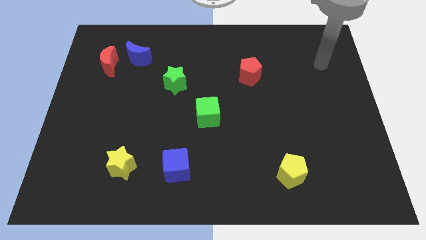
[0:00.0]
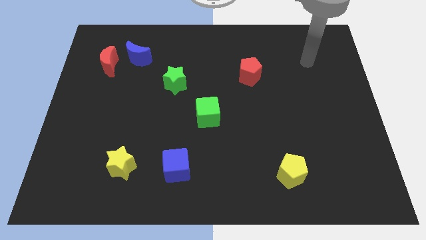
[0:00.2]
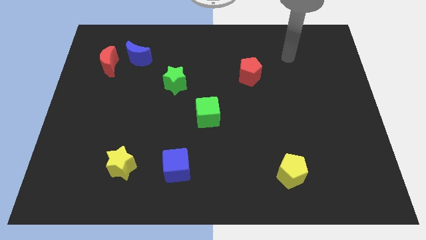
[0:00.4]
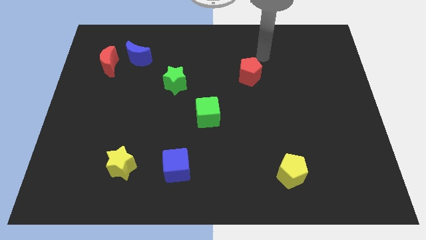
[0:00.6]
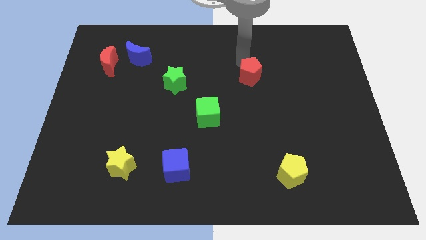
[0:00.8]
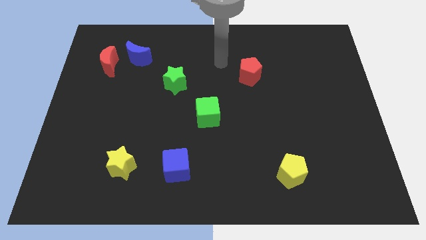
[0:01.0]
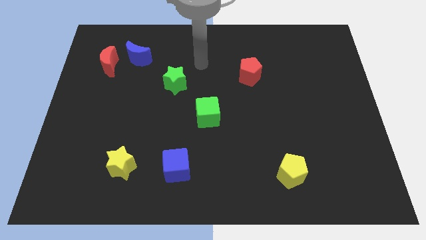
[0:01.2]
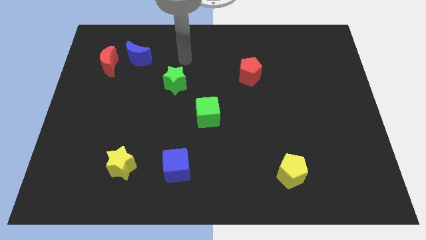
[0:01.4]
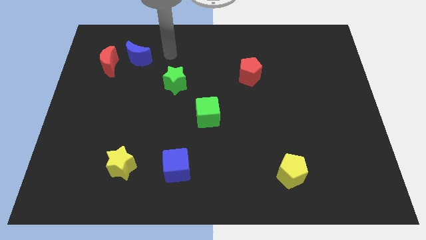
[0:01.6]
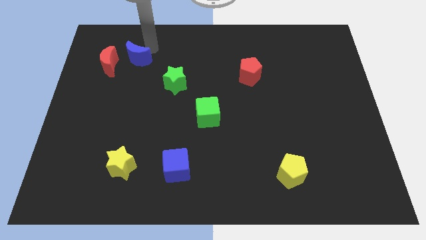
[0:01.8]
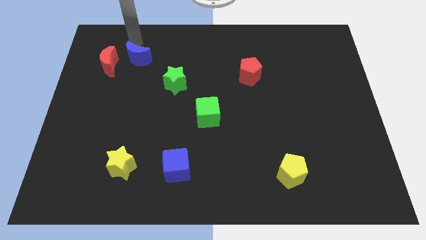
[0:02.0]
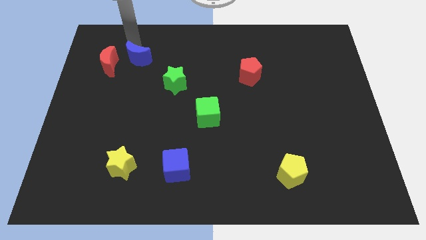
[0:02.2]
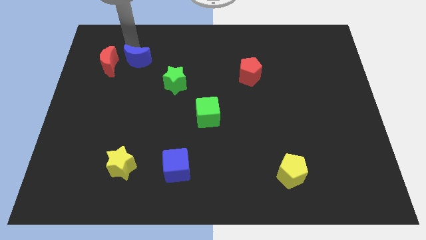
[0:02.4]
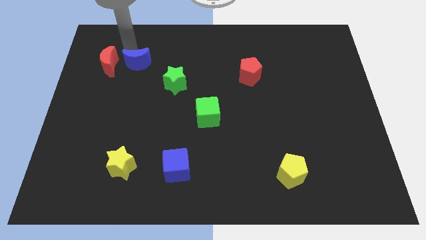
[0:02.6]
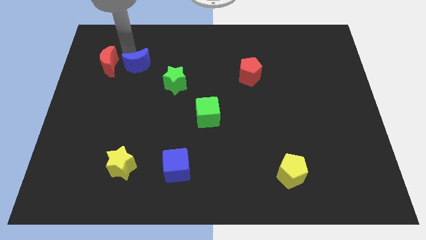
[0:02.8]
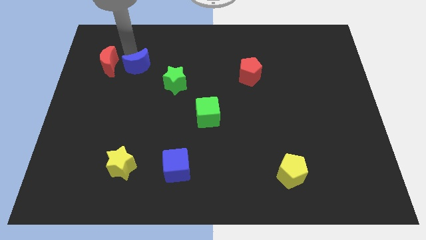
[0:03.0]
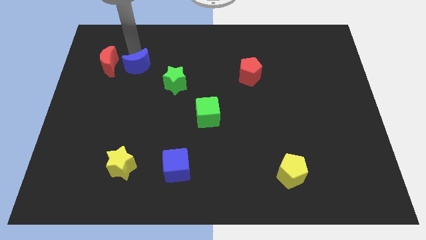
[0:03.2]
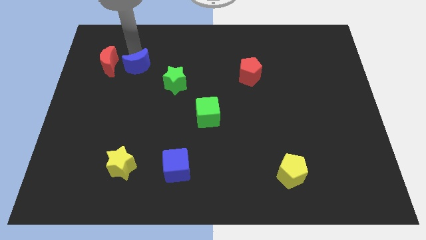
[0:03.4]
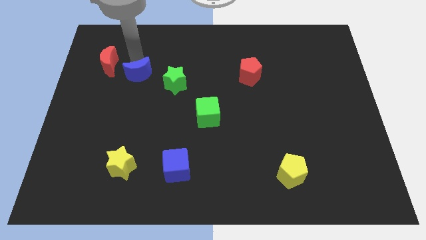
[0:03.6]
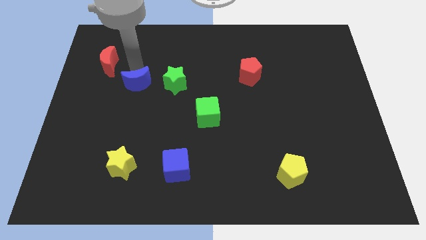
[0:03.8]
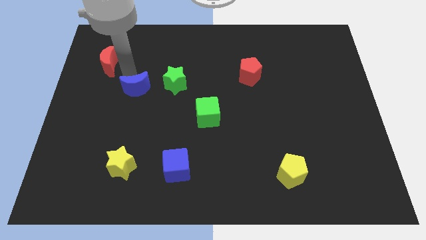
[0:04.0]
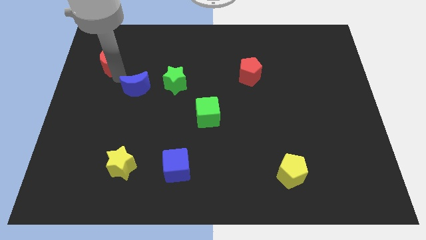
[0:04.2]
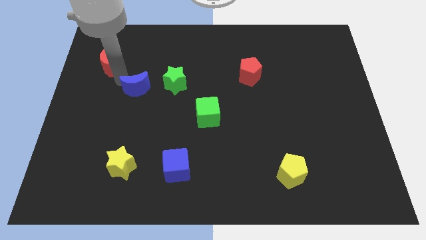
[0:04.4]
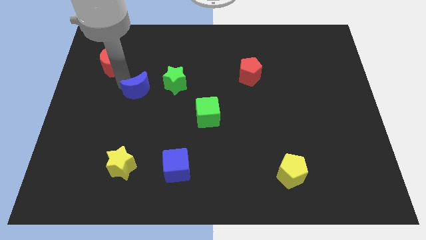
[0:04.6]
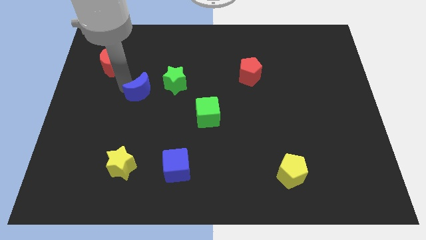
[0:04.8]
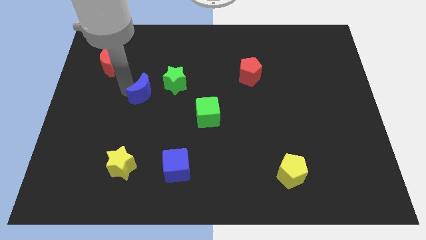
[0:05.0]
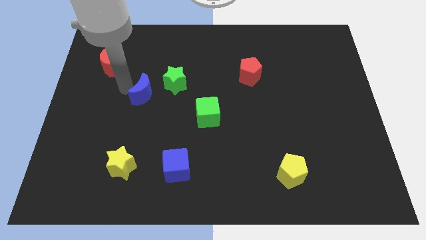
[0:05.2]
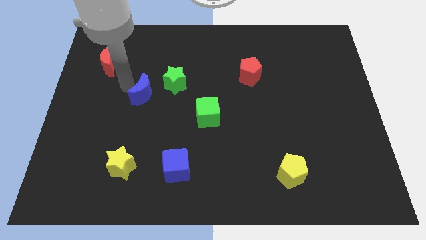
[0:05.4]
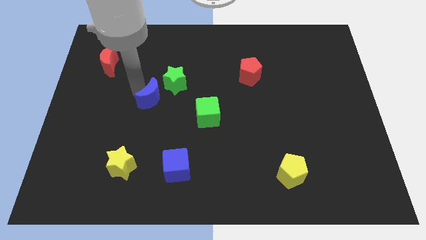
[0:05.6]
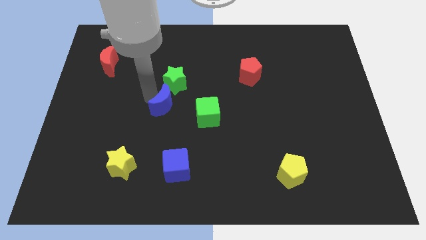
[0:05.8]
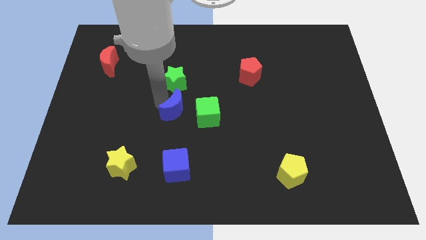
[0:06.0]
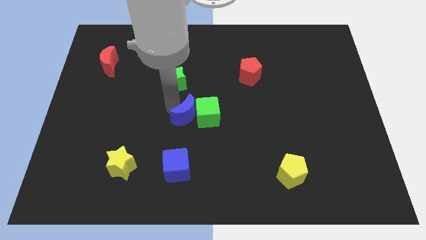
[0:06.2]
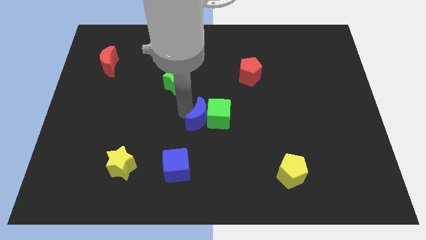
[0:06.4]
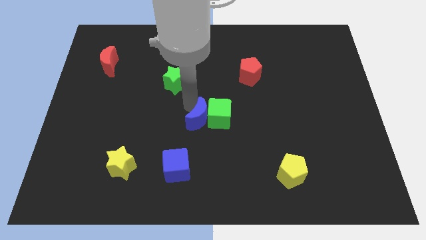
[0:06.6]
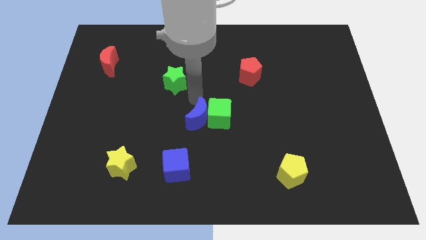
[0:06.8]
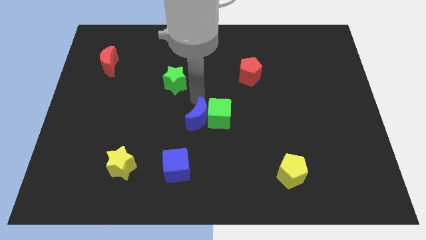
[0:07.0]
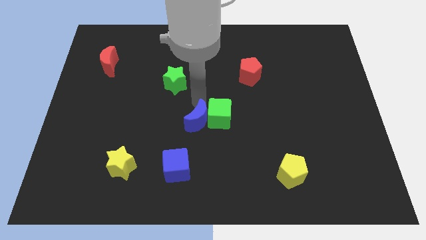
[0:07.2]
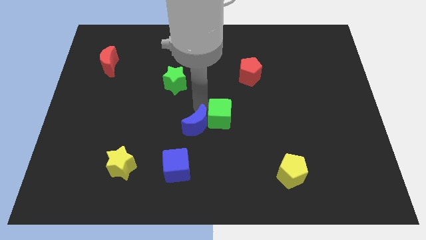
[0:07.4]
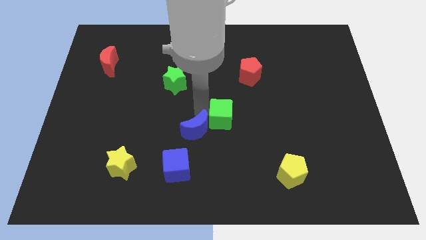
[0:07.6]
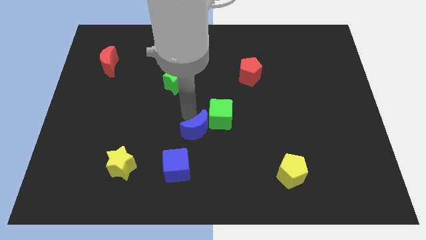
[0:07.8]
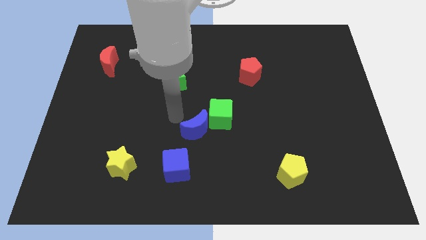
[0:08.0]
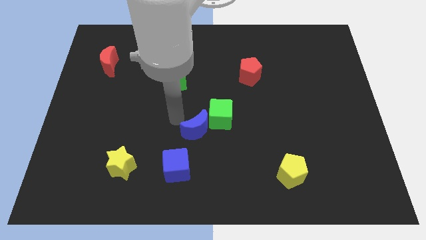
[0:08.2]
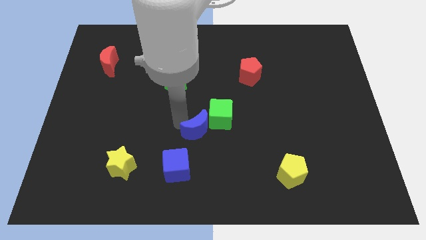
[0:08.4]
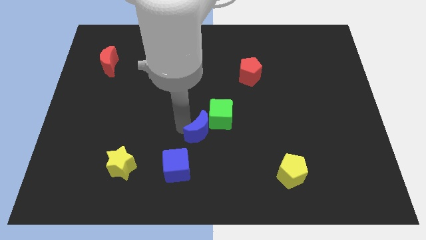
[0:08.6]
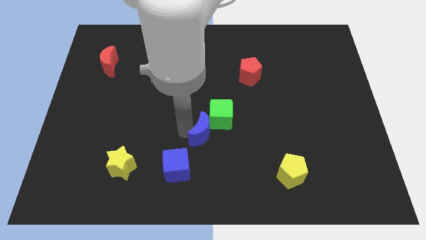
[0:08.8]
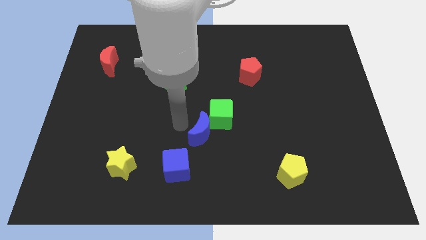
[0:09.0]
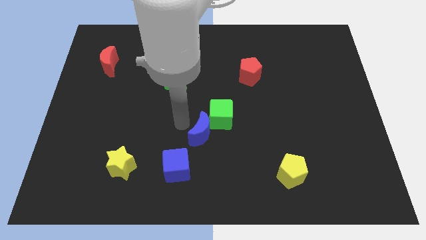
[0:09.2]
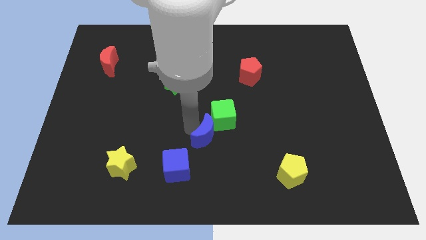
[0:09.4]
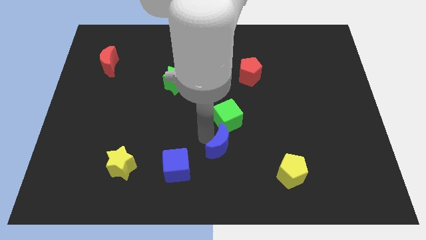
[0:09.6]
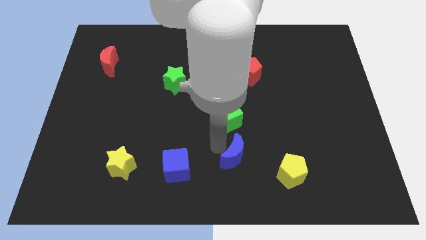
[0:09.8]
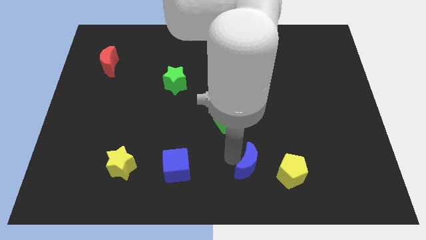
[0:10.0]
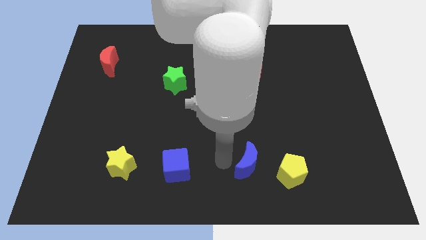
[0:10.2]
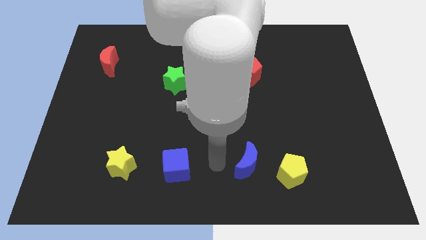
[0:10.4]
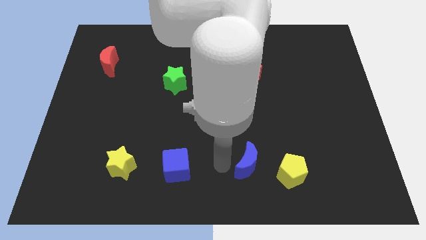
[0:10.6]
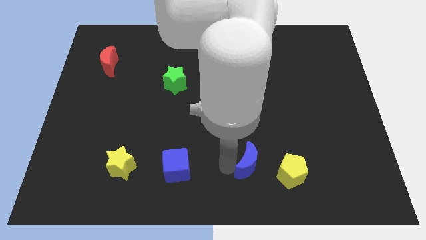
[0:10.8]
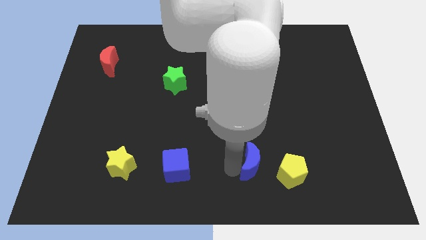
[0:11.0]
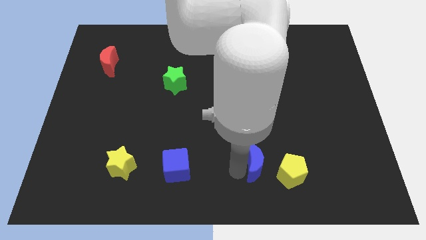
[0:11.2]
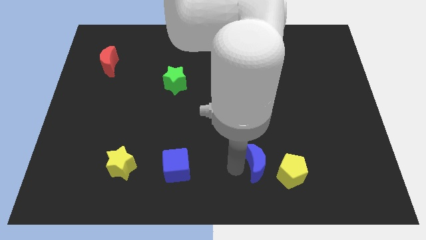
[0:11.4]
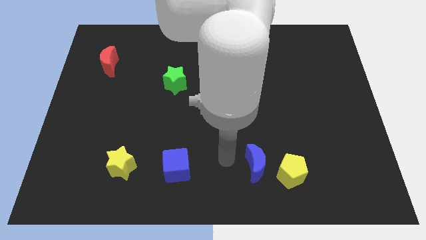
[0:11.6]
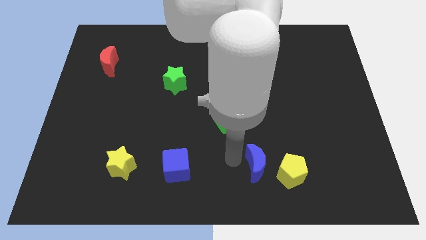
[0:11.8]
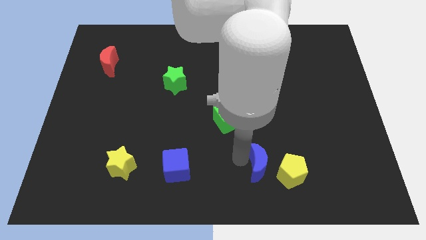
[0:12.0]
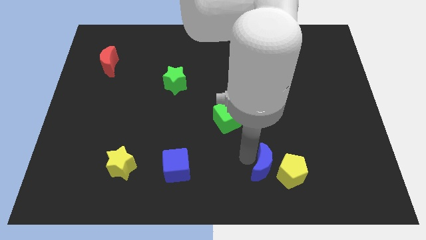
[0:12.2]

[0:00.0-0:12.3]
slide the blue moon towards the yellow pentagon

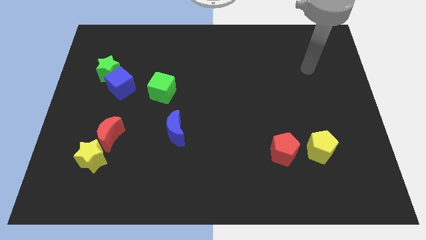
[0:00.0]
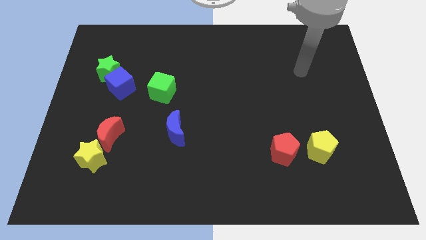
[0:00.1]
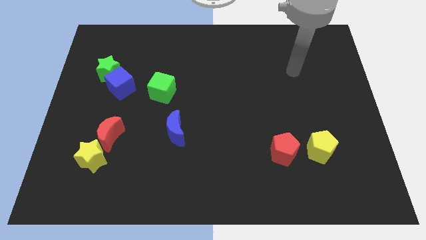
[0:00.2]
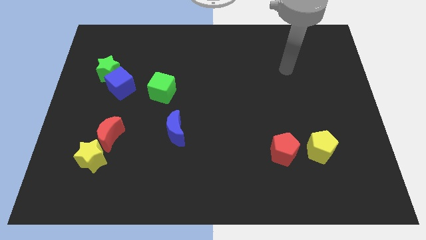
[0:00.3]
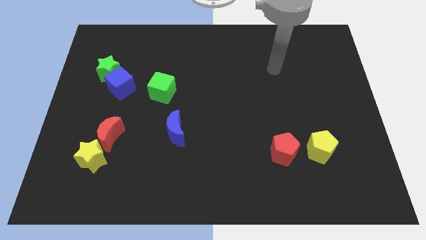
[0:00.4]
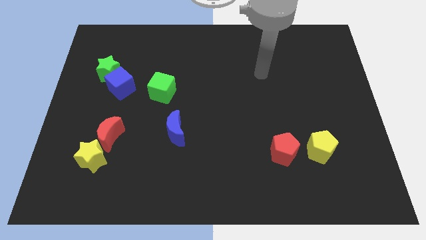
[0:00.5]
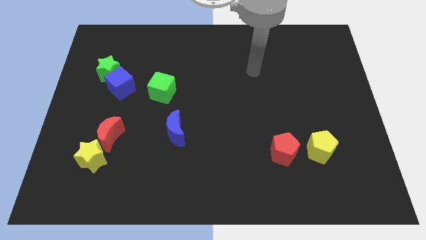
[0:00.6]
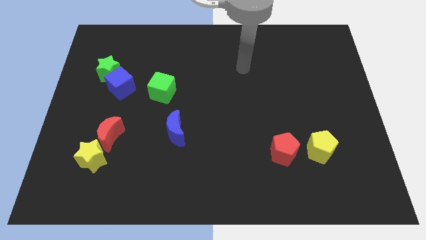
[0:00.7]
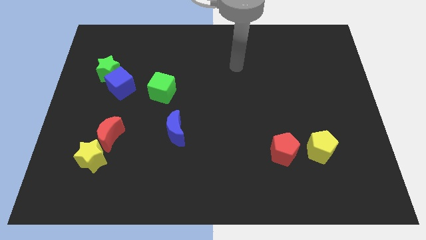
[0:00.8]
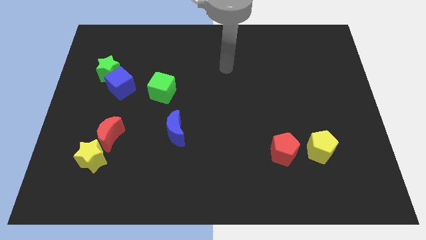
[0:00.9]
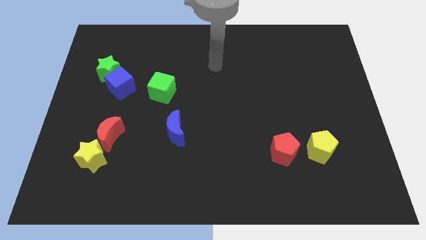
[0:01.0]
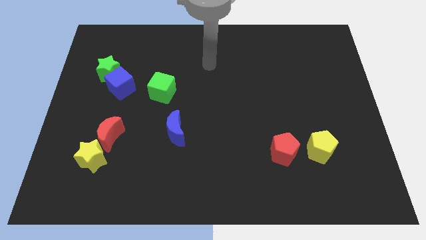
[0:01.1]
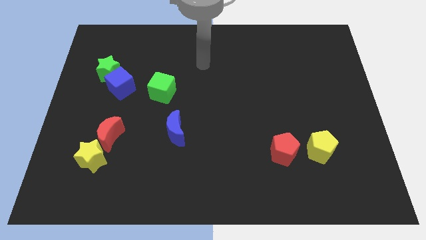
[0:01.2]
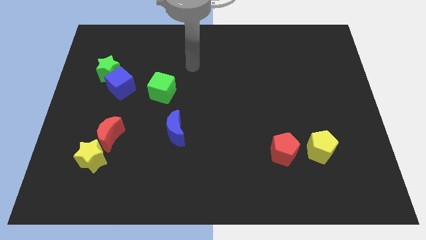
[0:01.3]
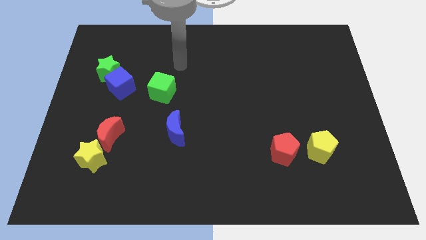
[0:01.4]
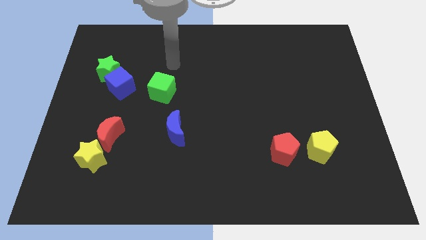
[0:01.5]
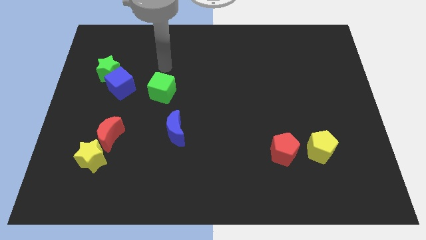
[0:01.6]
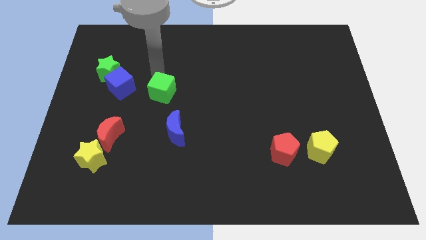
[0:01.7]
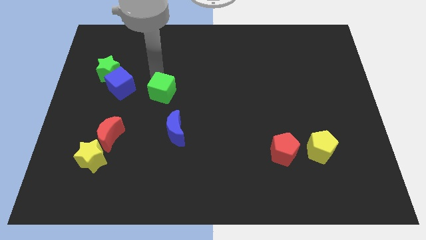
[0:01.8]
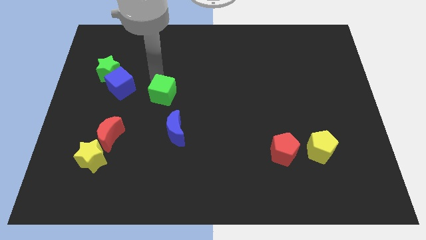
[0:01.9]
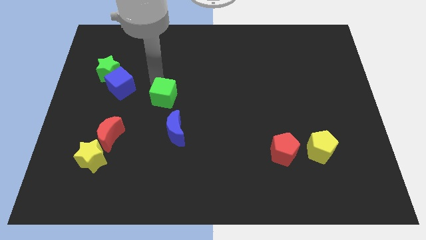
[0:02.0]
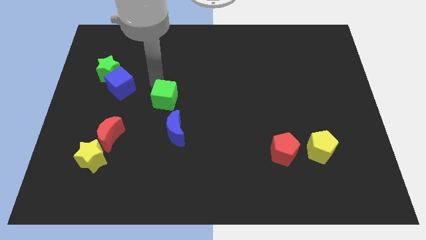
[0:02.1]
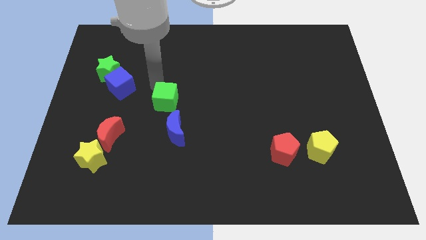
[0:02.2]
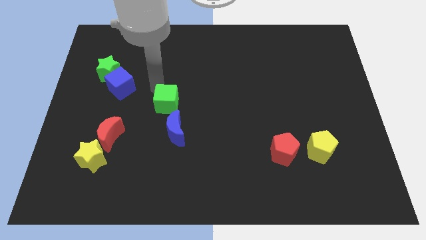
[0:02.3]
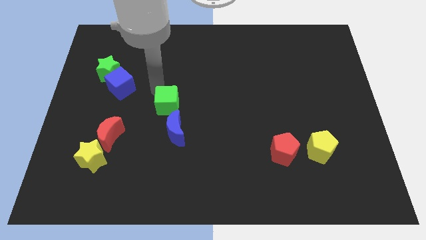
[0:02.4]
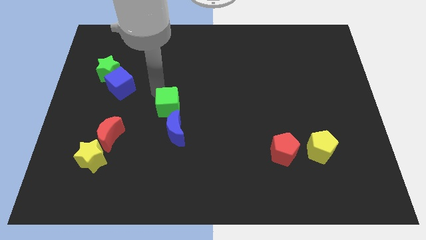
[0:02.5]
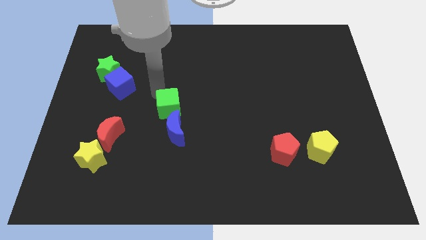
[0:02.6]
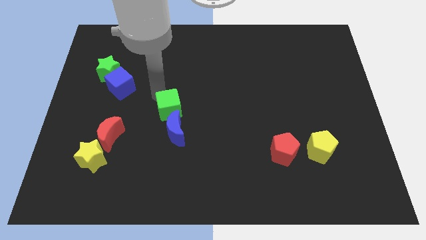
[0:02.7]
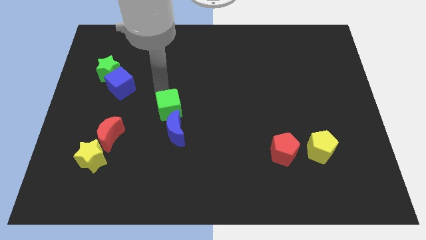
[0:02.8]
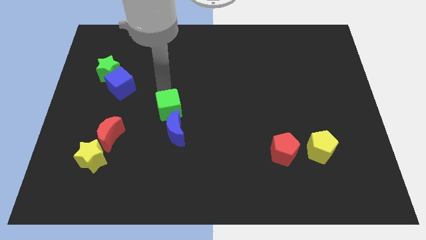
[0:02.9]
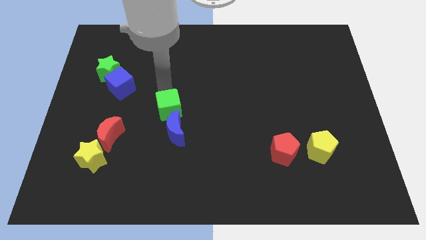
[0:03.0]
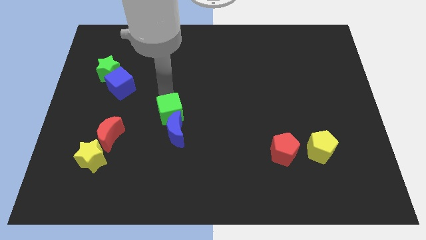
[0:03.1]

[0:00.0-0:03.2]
move the green cube close to the blue moon
